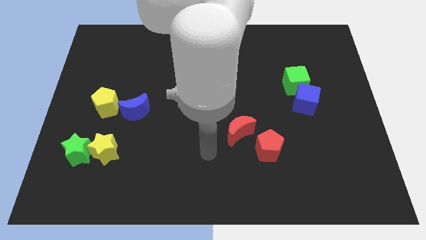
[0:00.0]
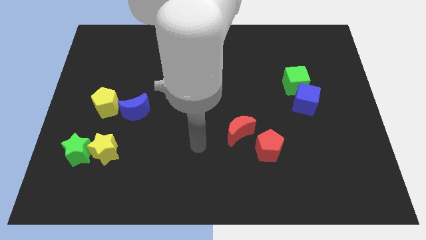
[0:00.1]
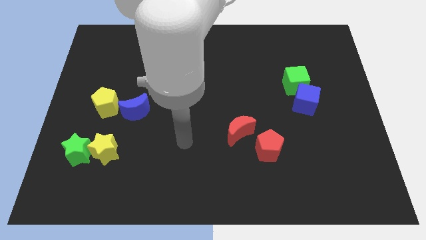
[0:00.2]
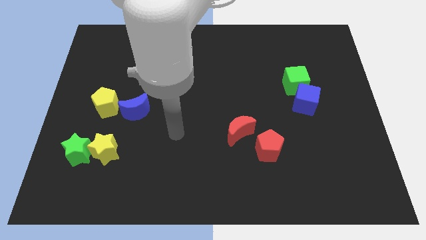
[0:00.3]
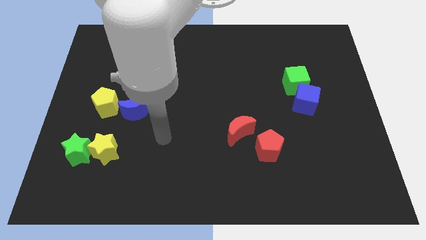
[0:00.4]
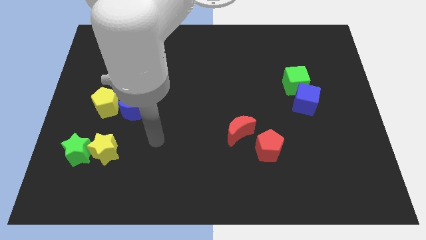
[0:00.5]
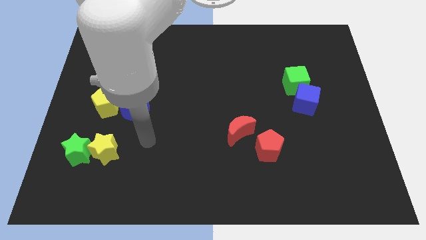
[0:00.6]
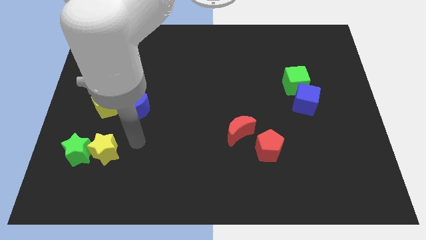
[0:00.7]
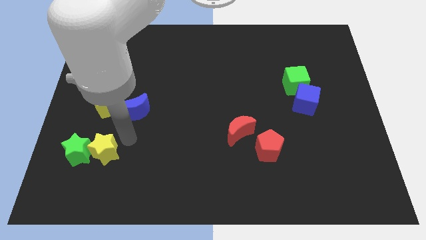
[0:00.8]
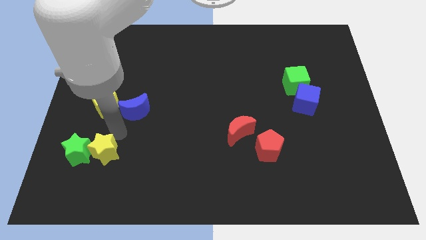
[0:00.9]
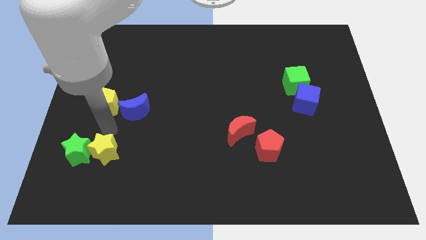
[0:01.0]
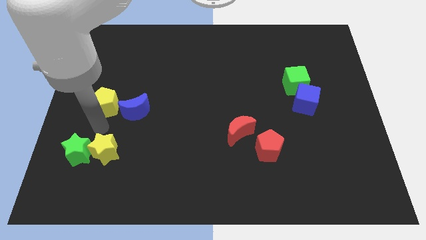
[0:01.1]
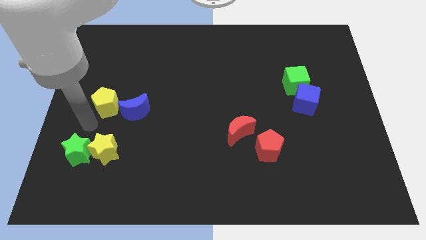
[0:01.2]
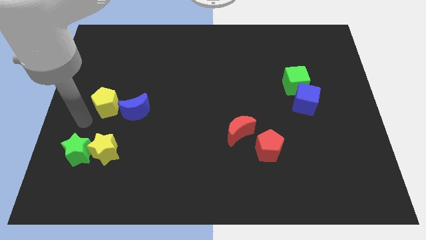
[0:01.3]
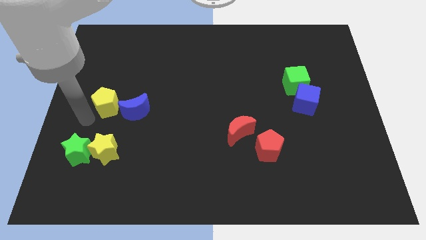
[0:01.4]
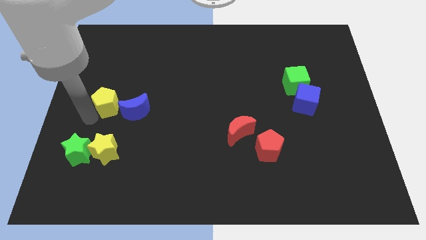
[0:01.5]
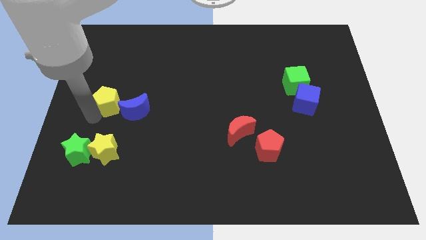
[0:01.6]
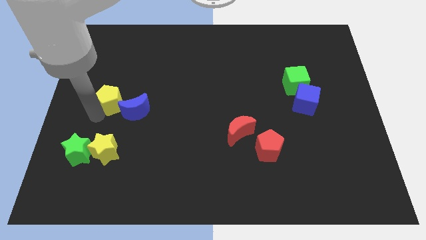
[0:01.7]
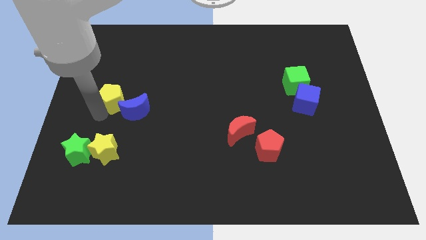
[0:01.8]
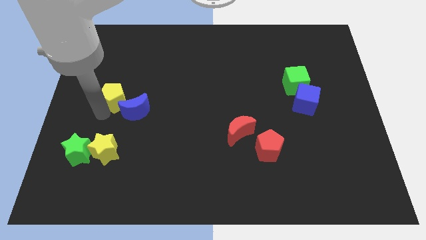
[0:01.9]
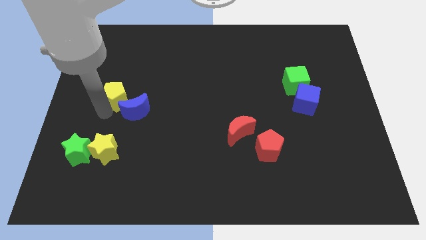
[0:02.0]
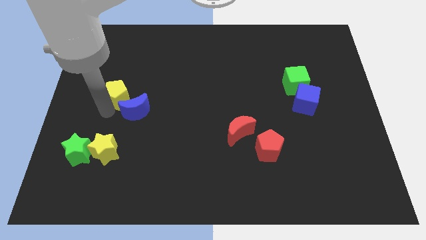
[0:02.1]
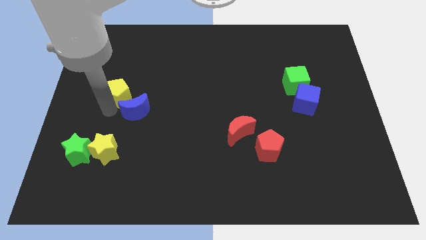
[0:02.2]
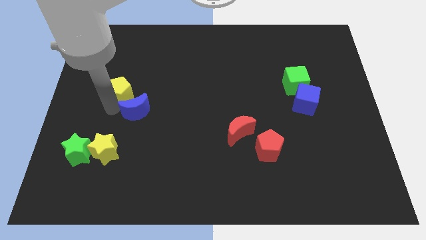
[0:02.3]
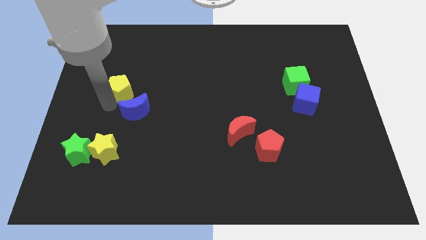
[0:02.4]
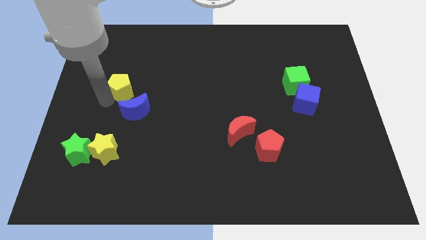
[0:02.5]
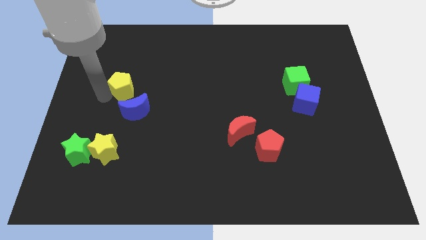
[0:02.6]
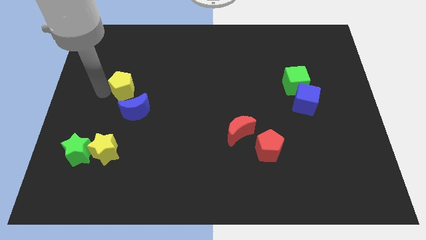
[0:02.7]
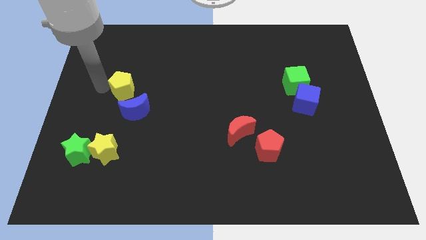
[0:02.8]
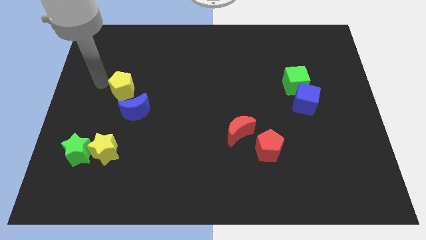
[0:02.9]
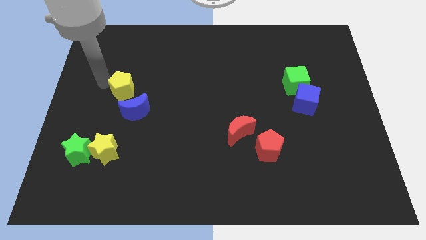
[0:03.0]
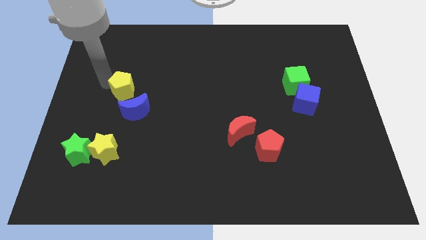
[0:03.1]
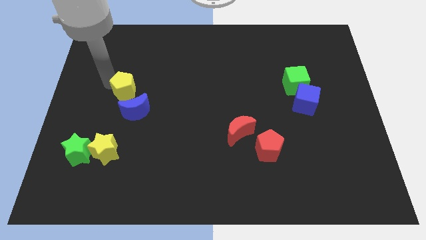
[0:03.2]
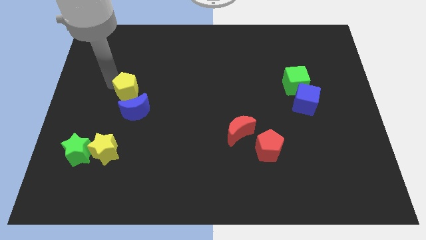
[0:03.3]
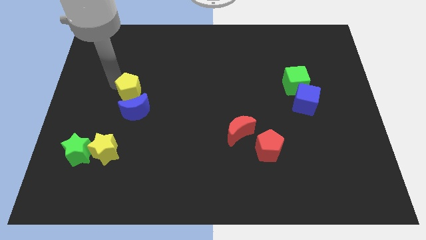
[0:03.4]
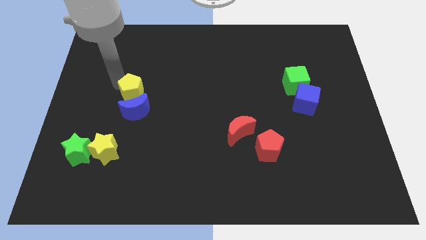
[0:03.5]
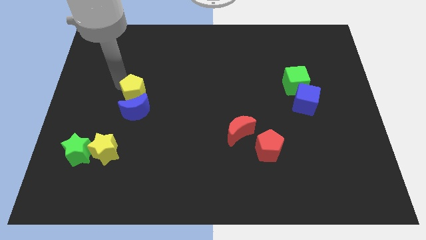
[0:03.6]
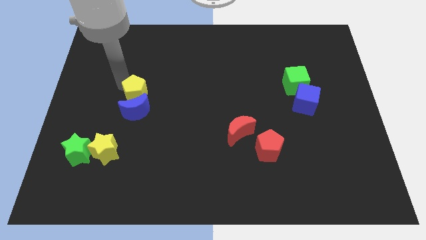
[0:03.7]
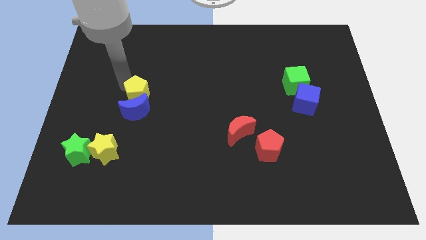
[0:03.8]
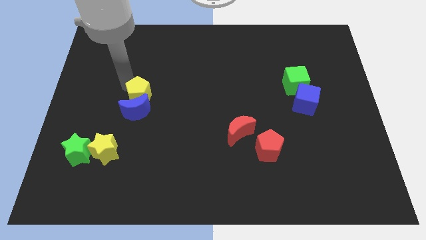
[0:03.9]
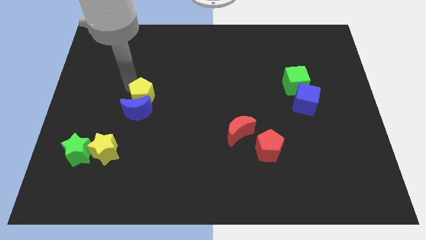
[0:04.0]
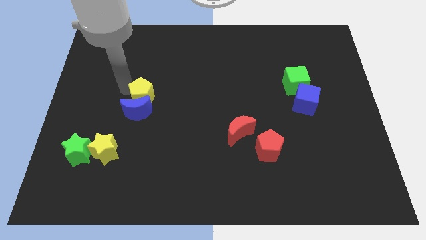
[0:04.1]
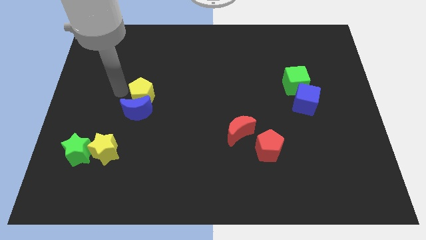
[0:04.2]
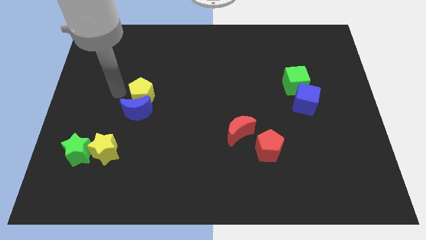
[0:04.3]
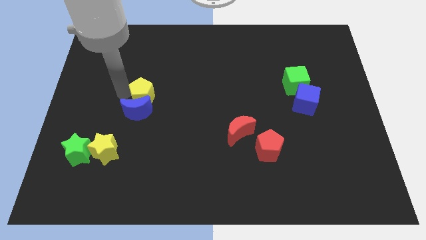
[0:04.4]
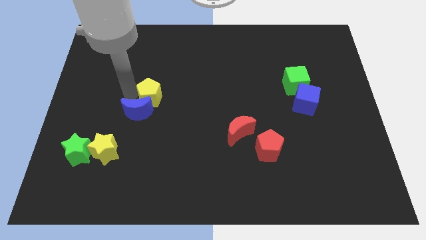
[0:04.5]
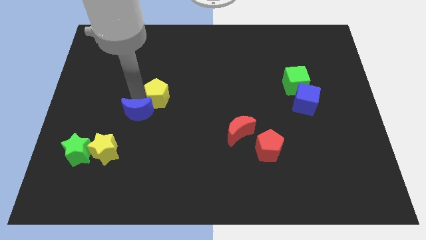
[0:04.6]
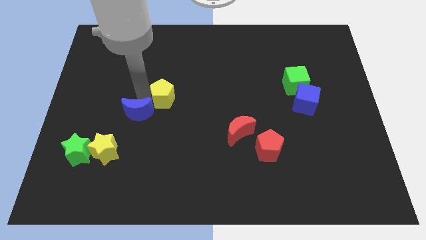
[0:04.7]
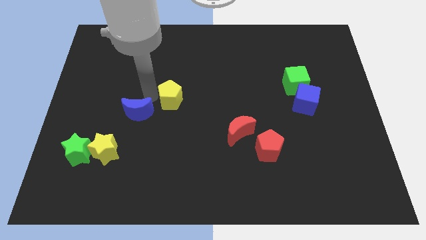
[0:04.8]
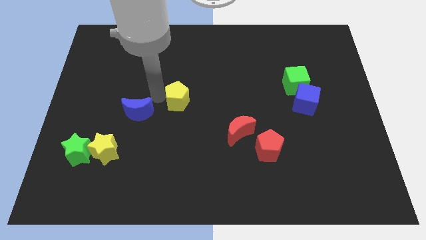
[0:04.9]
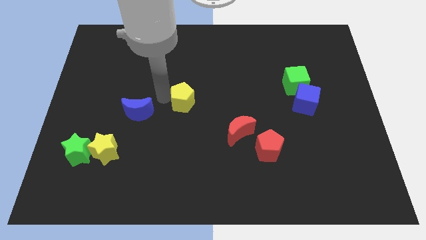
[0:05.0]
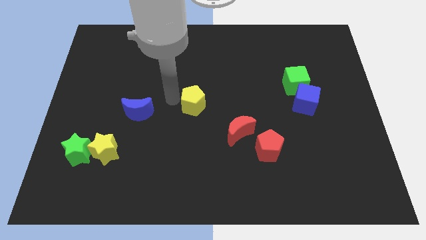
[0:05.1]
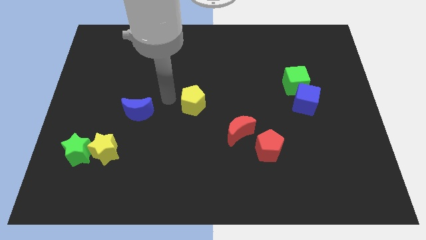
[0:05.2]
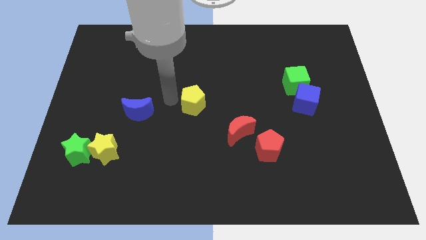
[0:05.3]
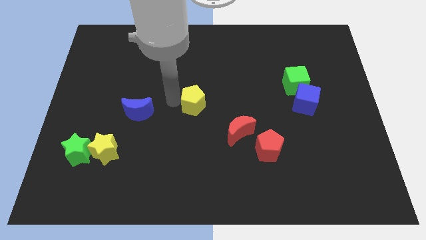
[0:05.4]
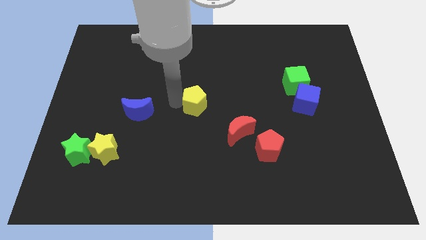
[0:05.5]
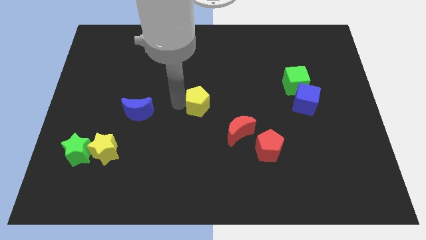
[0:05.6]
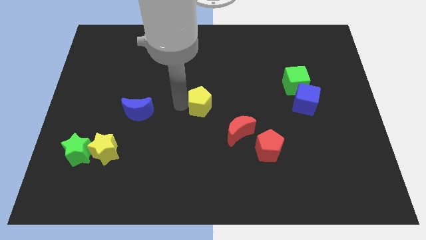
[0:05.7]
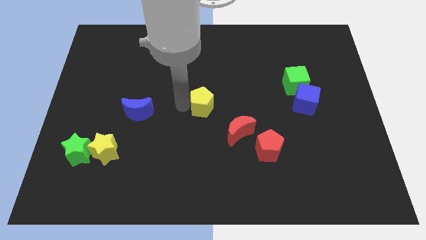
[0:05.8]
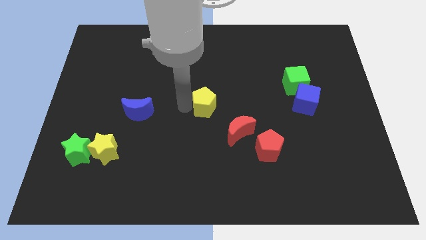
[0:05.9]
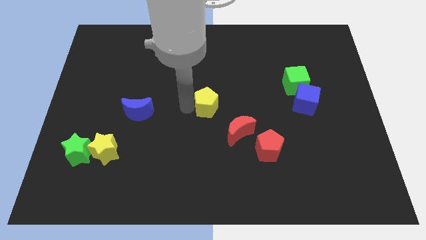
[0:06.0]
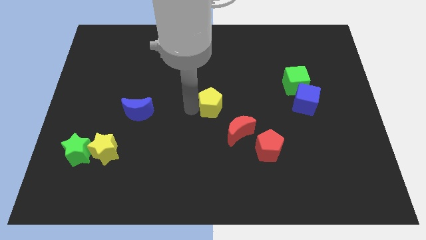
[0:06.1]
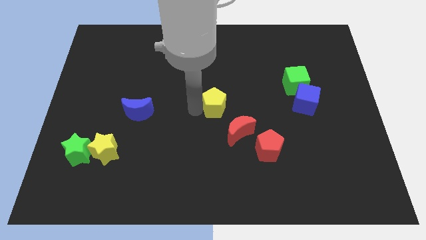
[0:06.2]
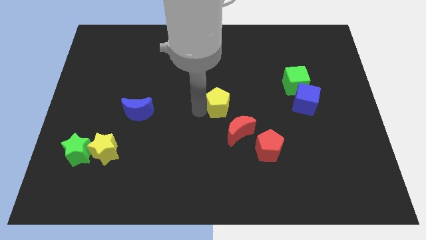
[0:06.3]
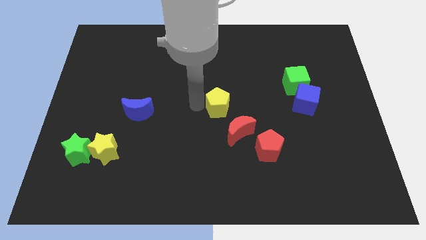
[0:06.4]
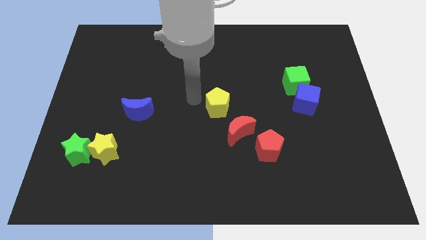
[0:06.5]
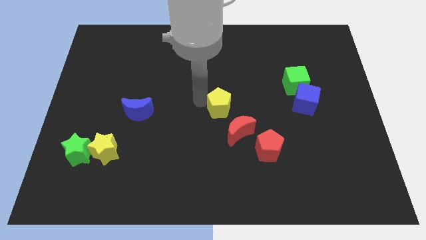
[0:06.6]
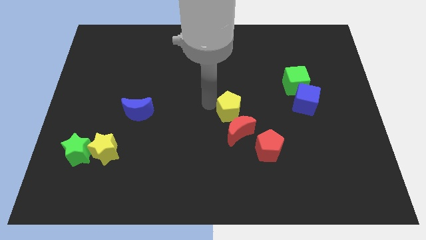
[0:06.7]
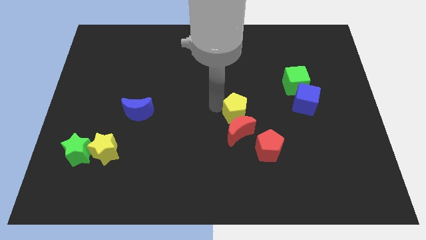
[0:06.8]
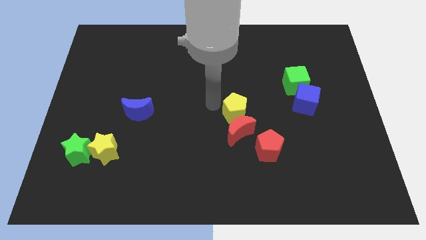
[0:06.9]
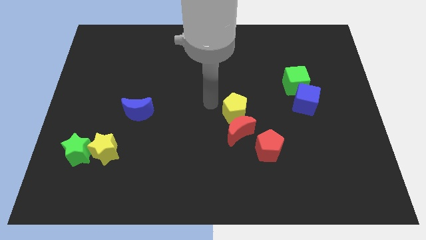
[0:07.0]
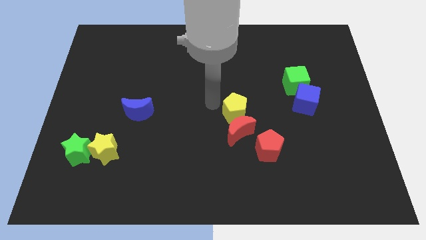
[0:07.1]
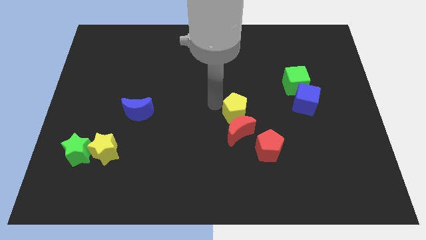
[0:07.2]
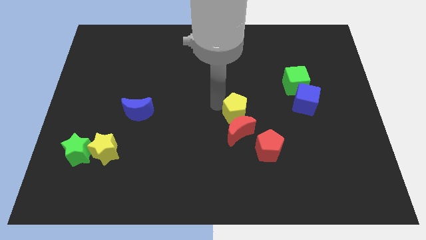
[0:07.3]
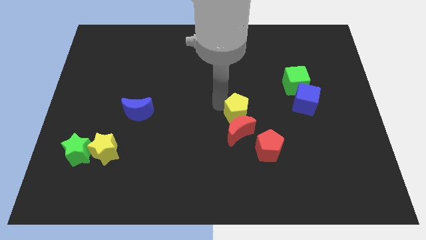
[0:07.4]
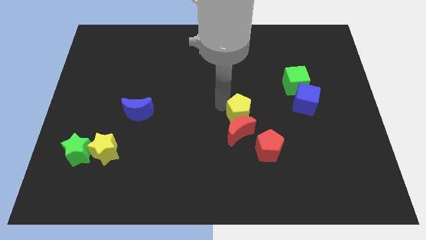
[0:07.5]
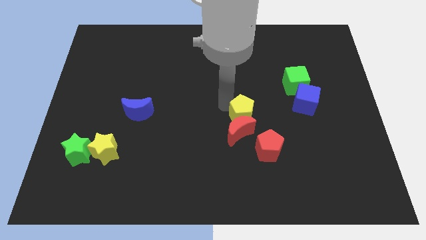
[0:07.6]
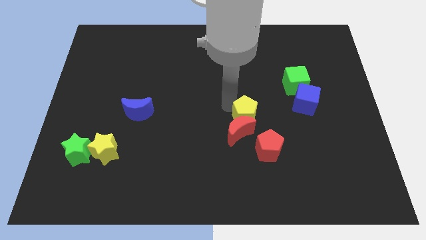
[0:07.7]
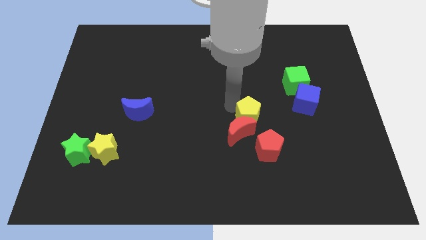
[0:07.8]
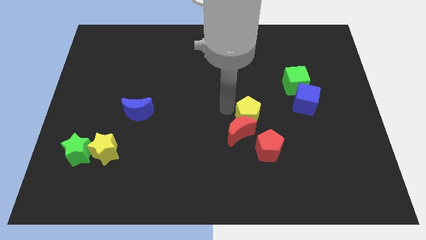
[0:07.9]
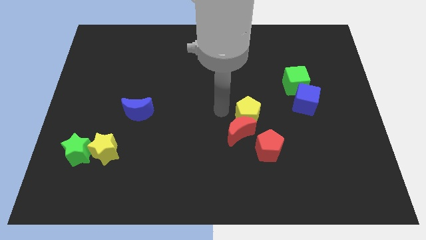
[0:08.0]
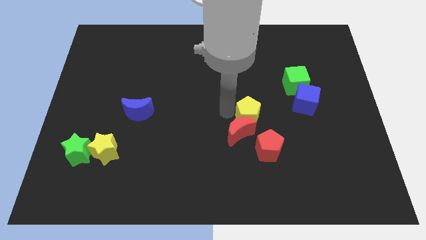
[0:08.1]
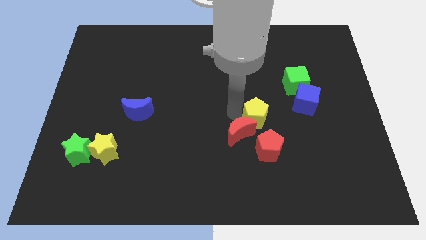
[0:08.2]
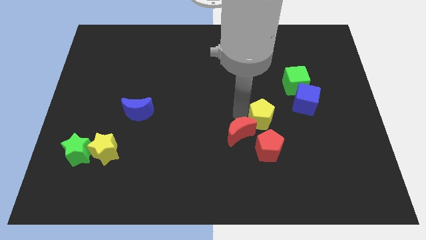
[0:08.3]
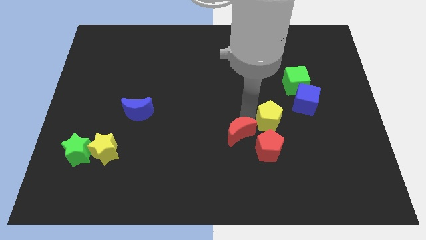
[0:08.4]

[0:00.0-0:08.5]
move the yellow pentagon to the bottom left of the blue cube
